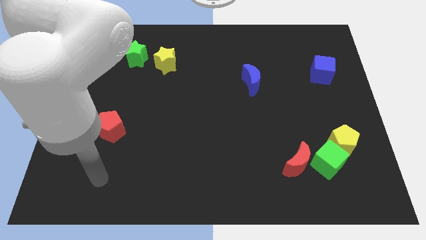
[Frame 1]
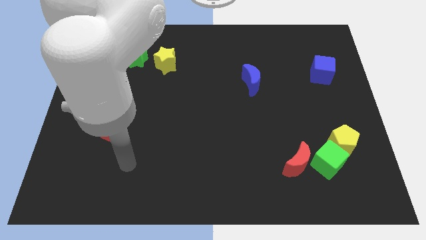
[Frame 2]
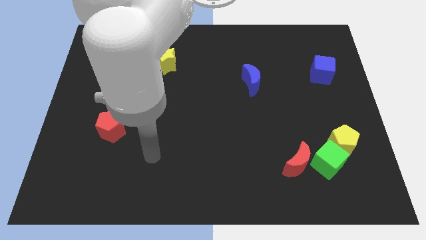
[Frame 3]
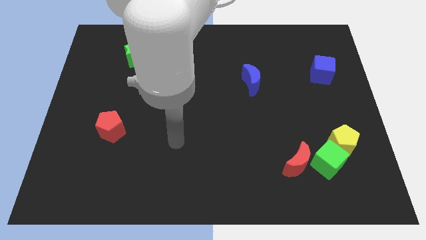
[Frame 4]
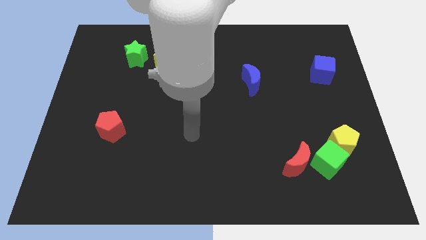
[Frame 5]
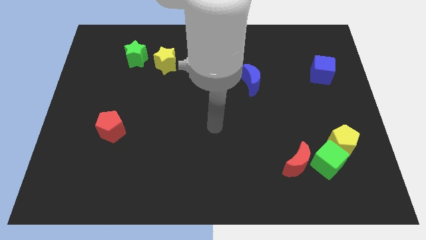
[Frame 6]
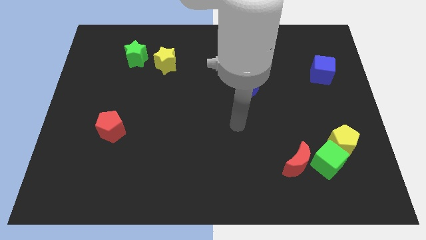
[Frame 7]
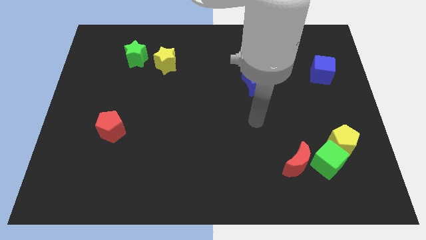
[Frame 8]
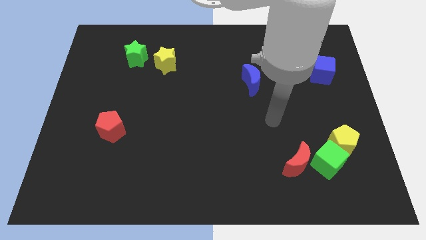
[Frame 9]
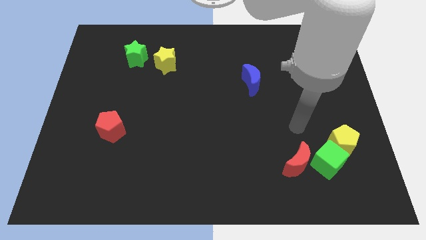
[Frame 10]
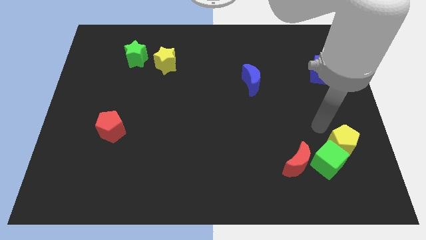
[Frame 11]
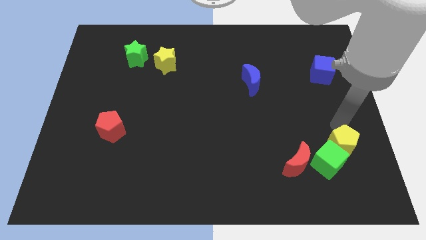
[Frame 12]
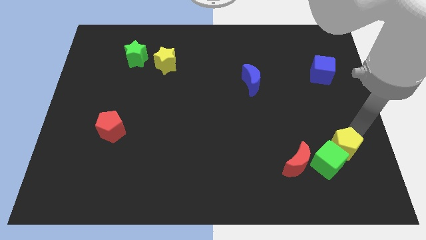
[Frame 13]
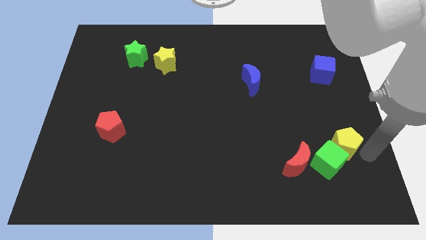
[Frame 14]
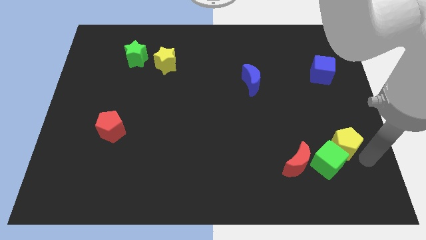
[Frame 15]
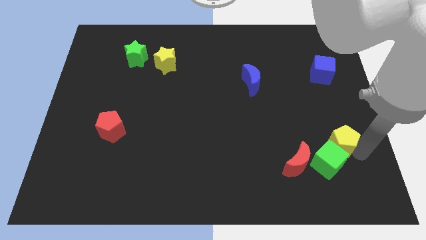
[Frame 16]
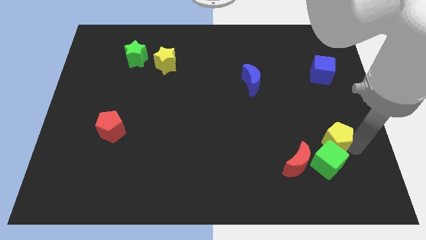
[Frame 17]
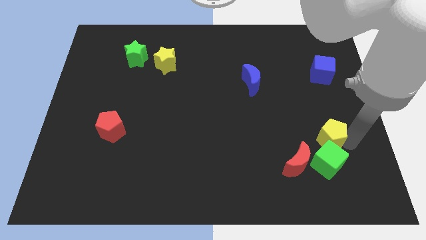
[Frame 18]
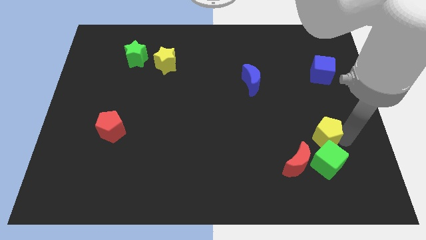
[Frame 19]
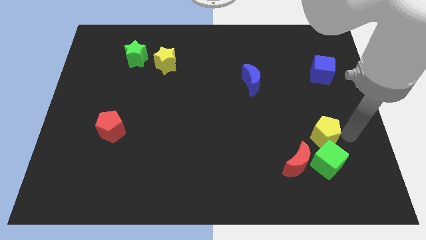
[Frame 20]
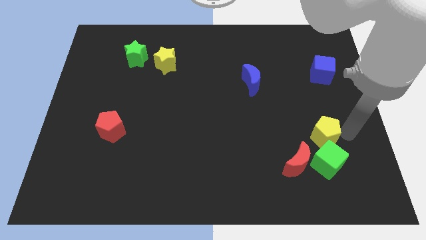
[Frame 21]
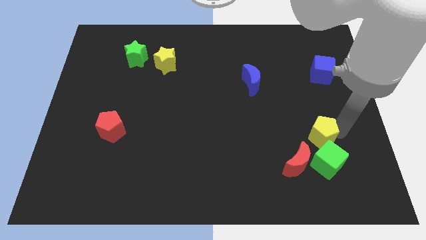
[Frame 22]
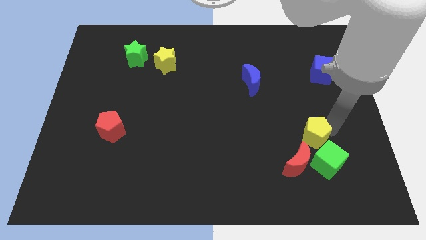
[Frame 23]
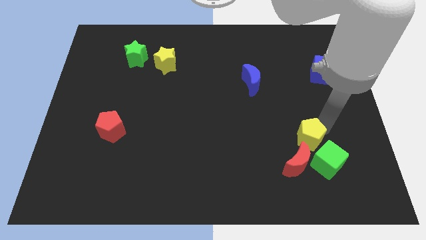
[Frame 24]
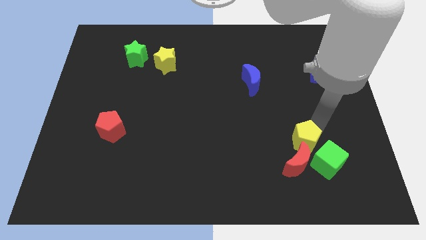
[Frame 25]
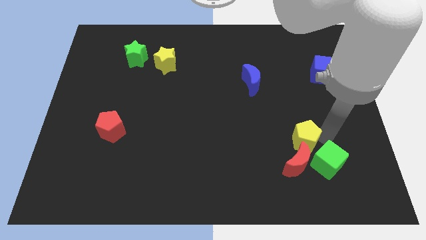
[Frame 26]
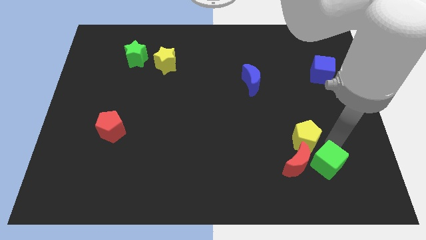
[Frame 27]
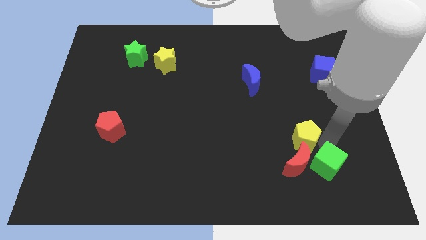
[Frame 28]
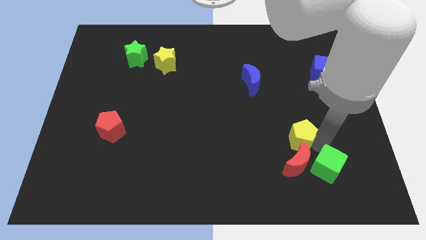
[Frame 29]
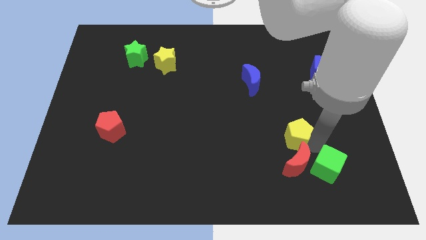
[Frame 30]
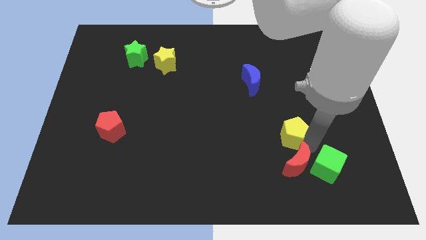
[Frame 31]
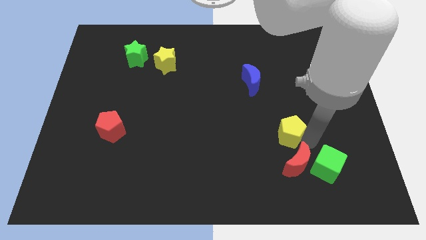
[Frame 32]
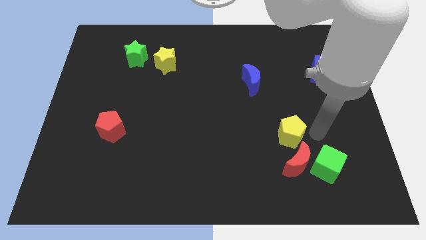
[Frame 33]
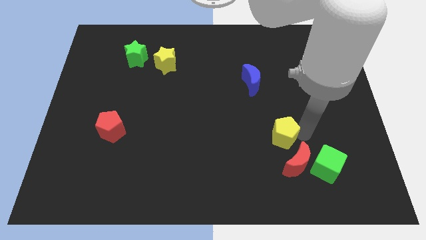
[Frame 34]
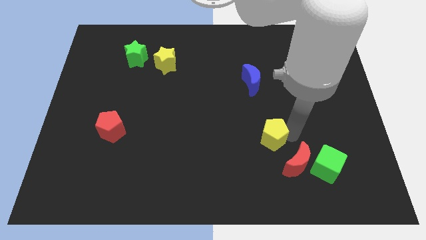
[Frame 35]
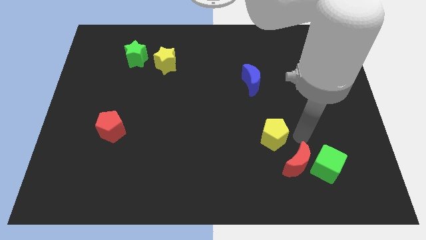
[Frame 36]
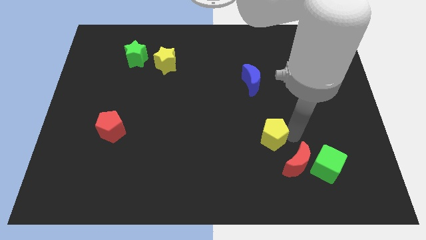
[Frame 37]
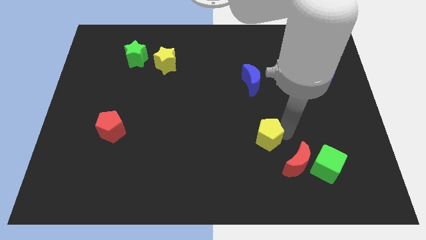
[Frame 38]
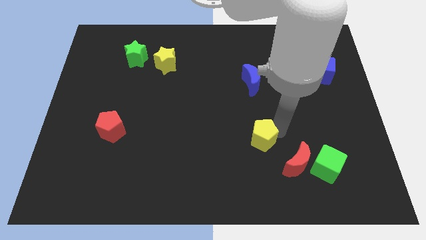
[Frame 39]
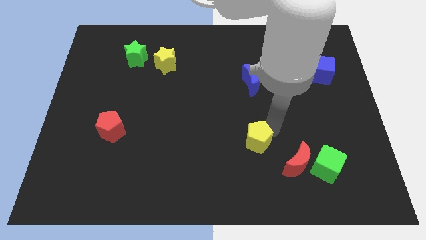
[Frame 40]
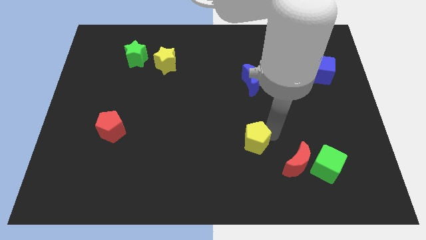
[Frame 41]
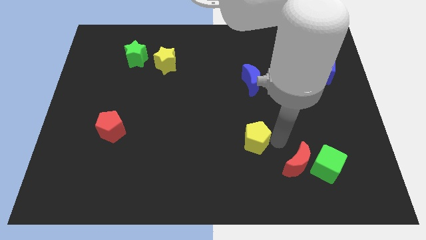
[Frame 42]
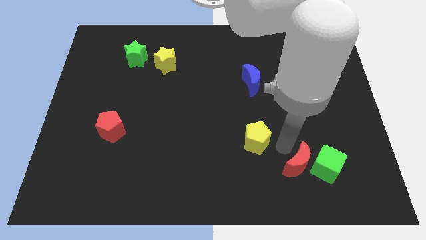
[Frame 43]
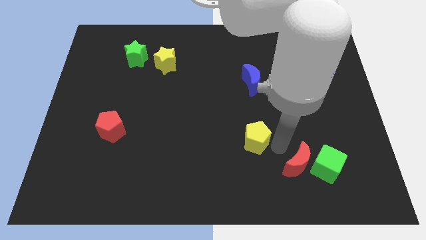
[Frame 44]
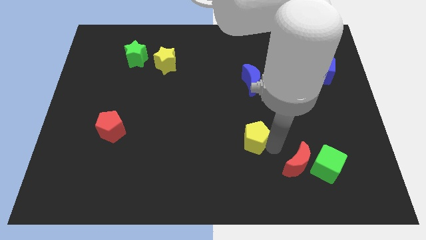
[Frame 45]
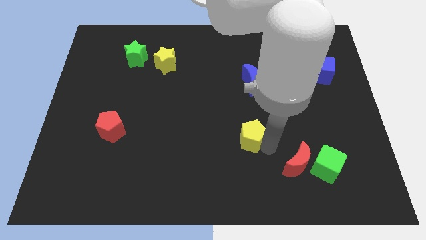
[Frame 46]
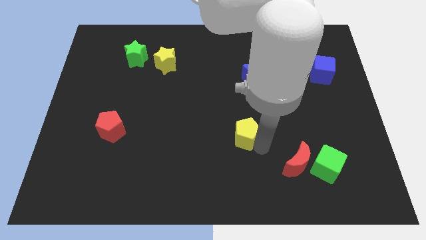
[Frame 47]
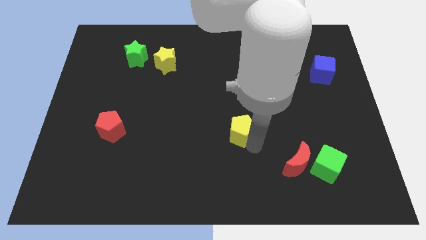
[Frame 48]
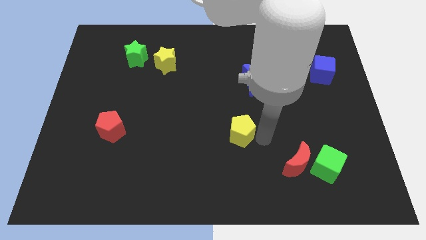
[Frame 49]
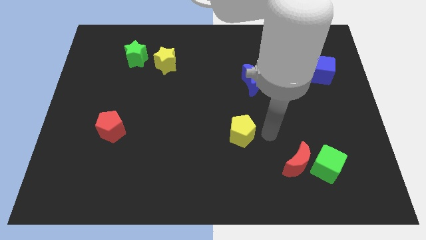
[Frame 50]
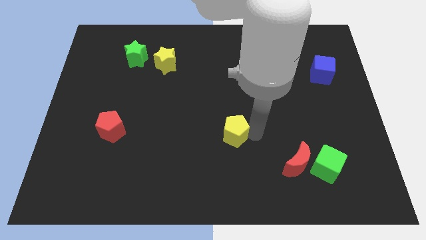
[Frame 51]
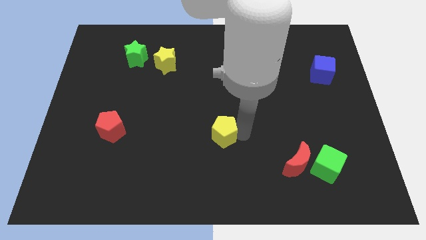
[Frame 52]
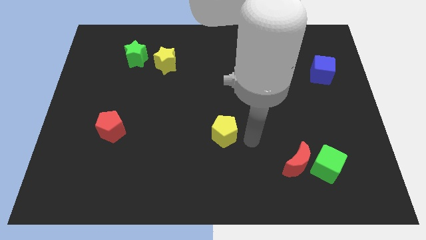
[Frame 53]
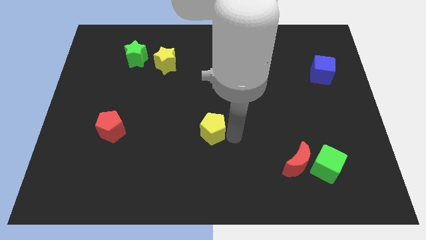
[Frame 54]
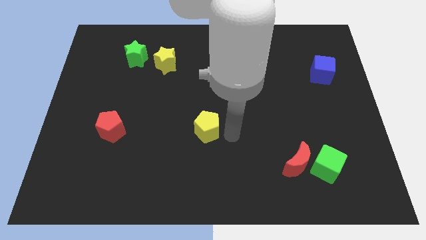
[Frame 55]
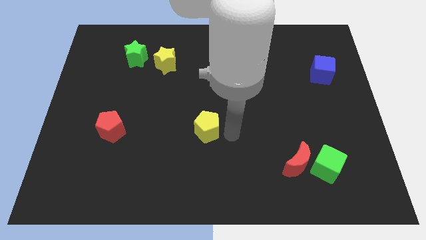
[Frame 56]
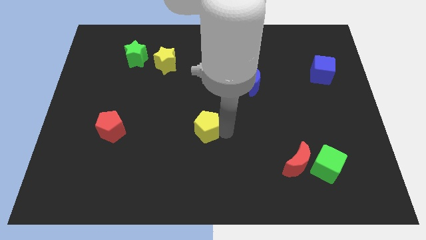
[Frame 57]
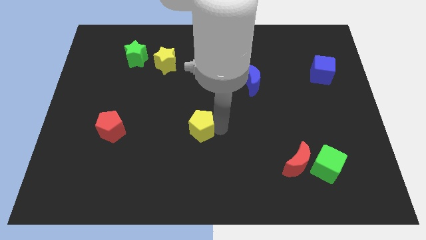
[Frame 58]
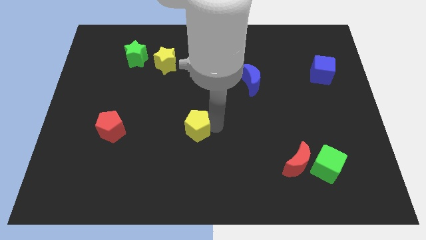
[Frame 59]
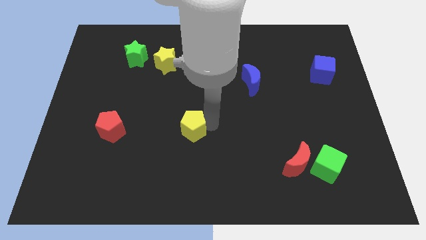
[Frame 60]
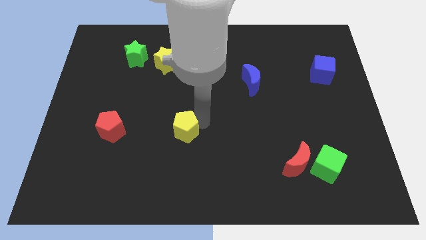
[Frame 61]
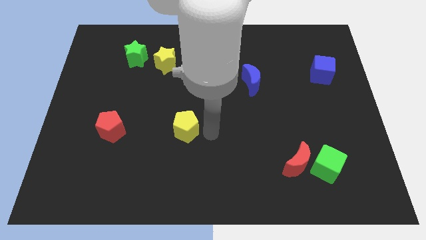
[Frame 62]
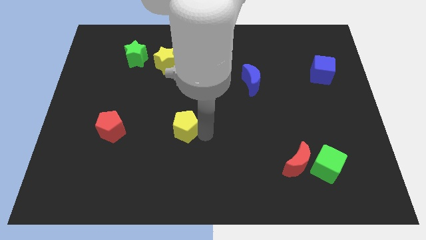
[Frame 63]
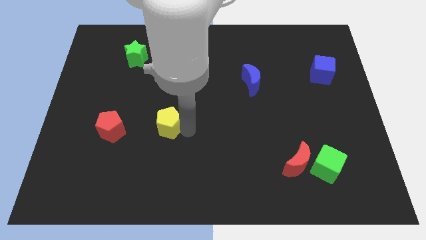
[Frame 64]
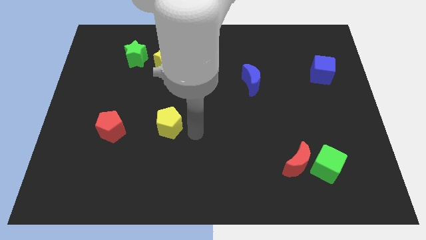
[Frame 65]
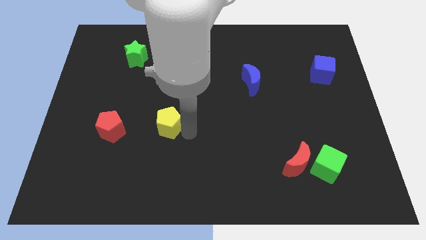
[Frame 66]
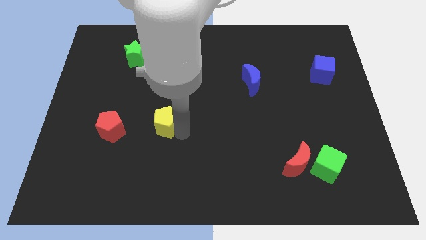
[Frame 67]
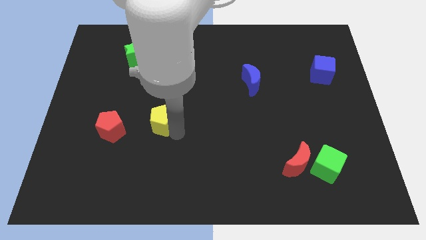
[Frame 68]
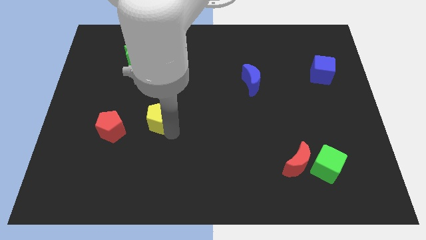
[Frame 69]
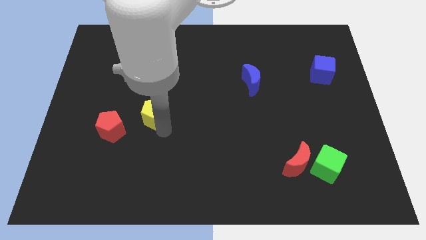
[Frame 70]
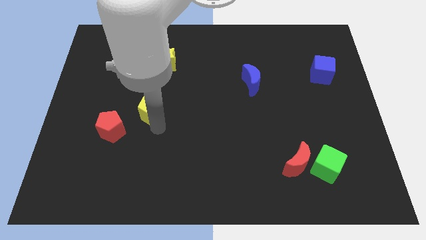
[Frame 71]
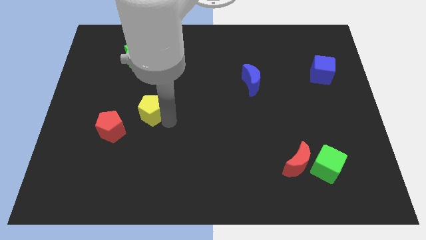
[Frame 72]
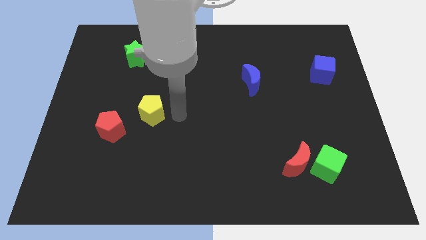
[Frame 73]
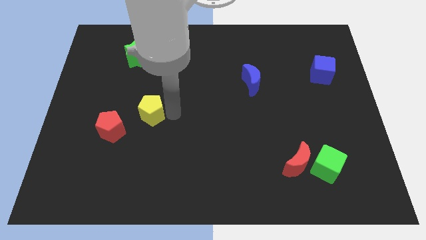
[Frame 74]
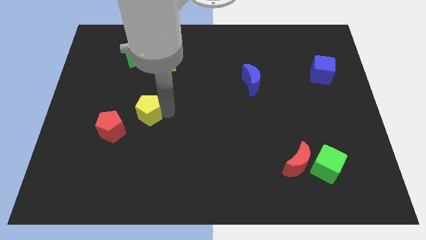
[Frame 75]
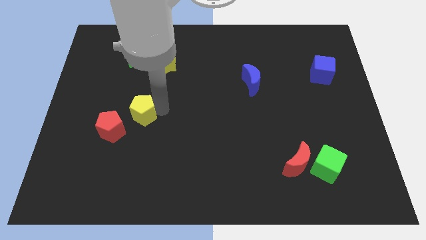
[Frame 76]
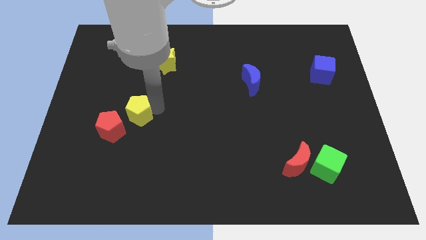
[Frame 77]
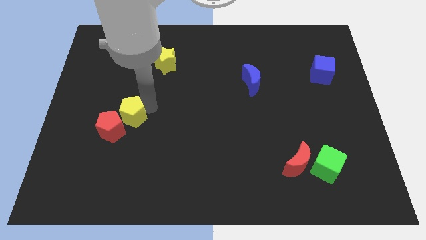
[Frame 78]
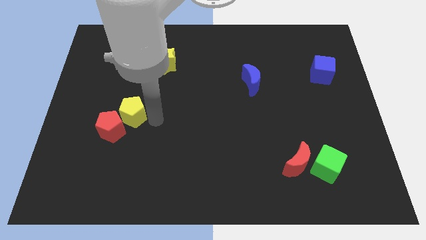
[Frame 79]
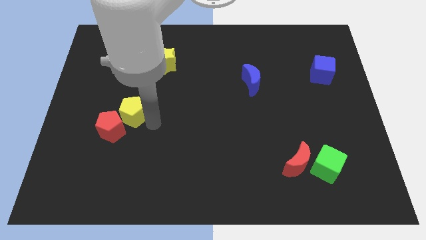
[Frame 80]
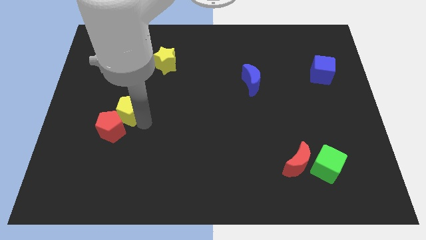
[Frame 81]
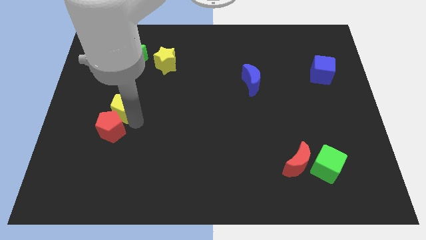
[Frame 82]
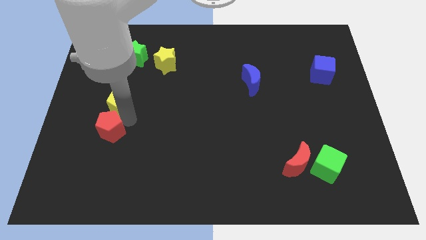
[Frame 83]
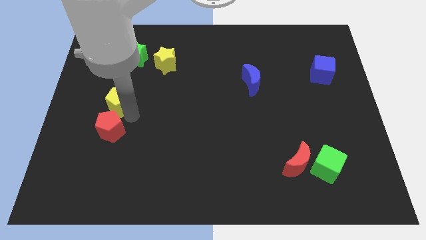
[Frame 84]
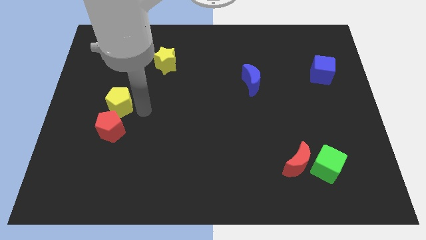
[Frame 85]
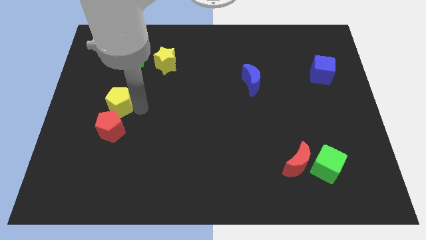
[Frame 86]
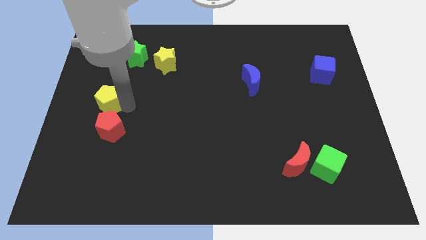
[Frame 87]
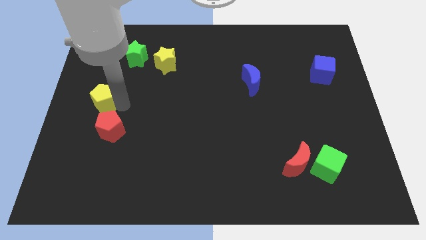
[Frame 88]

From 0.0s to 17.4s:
move the yellow pentagon to the left side of the board
